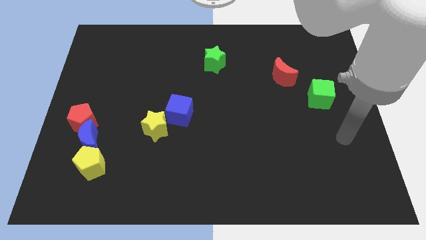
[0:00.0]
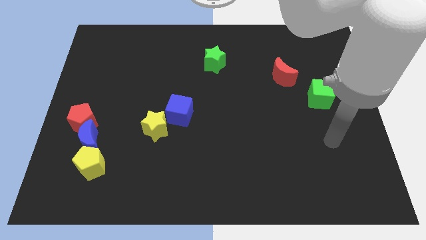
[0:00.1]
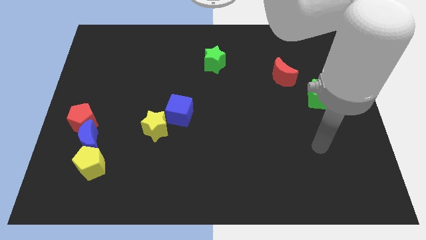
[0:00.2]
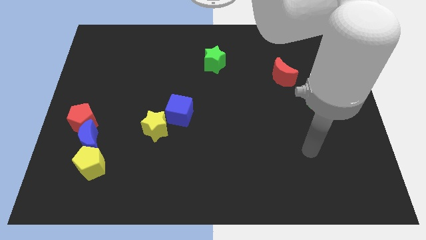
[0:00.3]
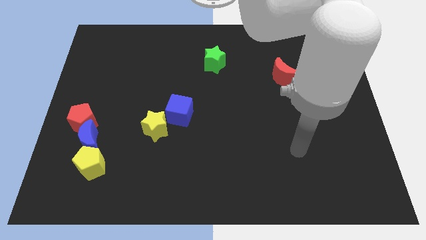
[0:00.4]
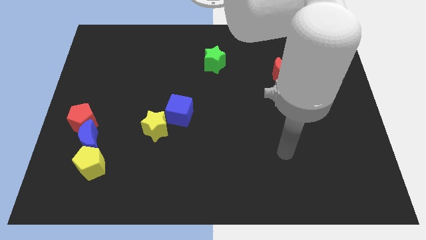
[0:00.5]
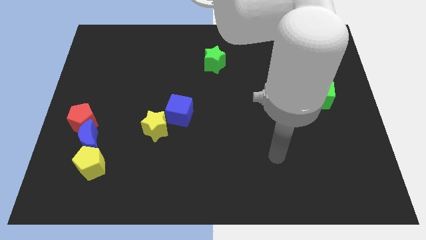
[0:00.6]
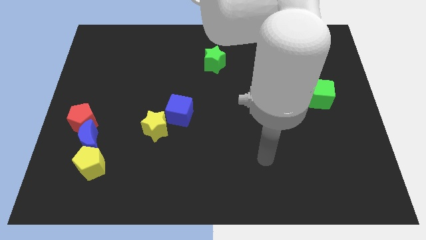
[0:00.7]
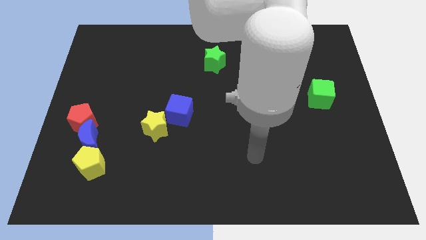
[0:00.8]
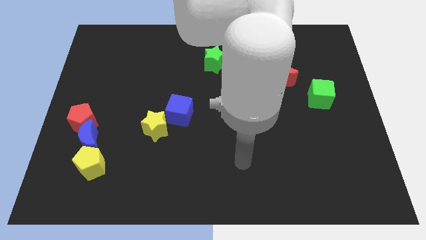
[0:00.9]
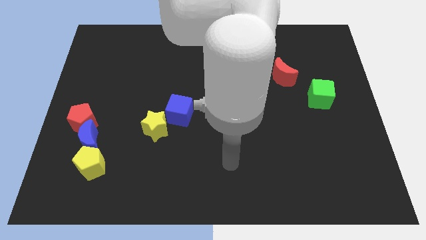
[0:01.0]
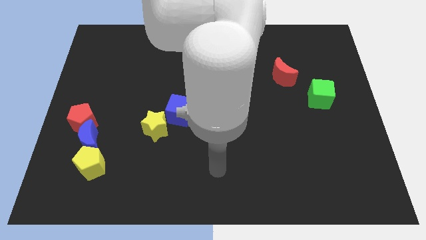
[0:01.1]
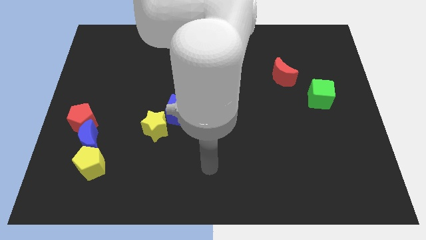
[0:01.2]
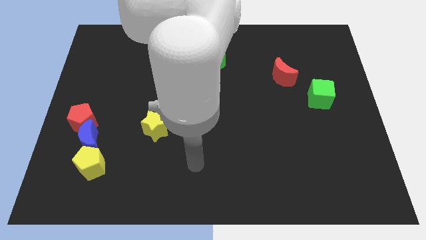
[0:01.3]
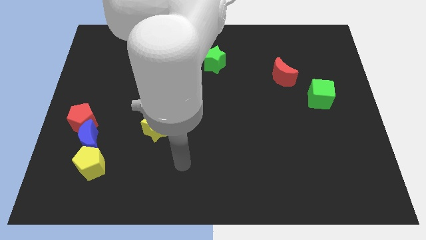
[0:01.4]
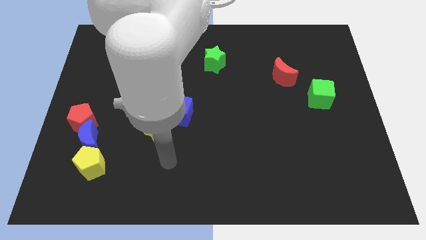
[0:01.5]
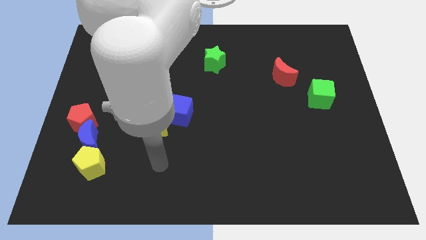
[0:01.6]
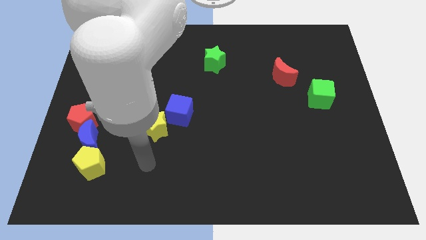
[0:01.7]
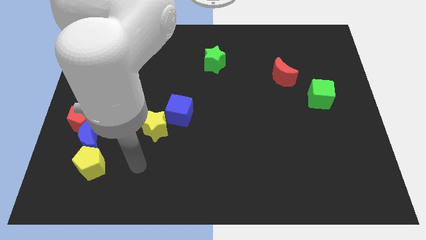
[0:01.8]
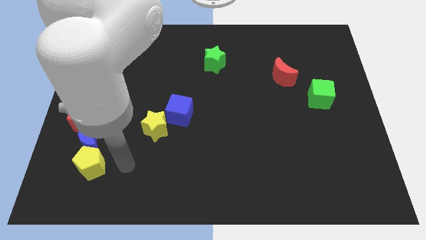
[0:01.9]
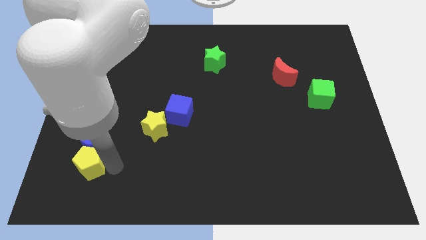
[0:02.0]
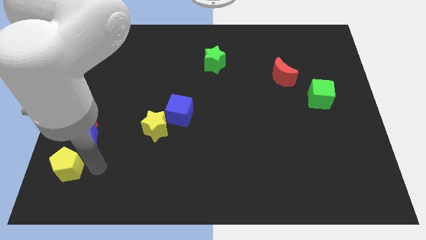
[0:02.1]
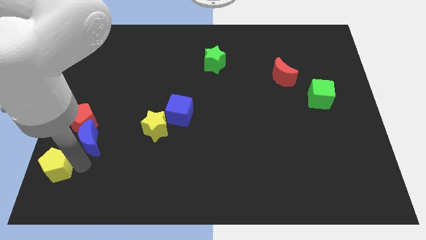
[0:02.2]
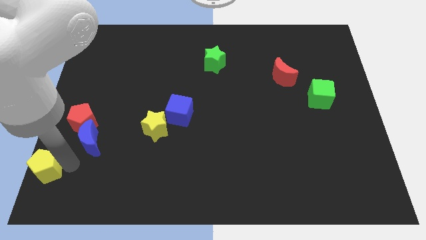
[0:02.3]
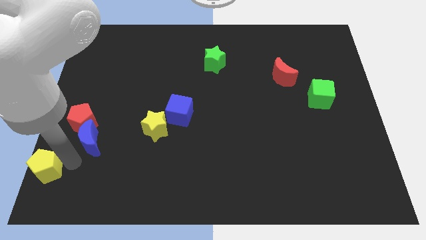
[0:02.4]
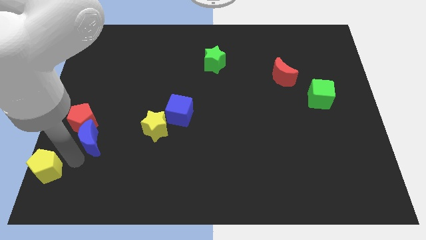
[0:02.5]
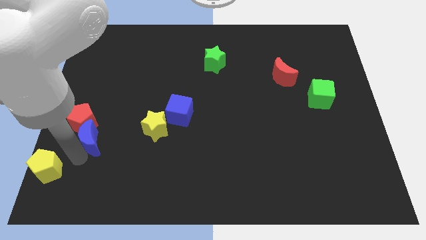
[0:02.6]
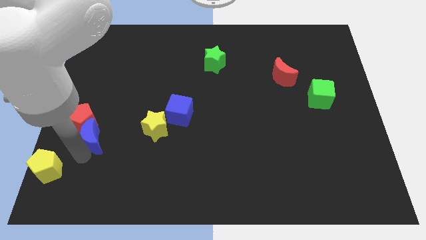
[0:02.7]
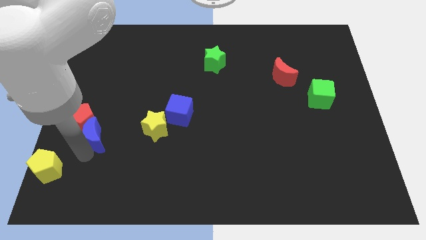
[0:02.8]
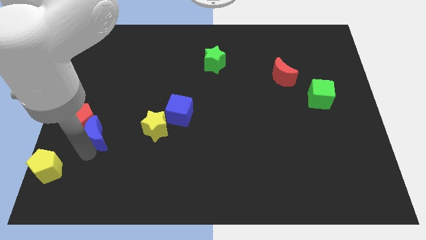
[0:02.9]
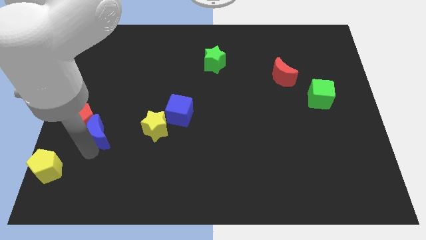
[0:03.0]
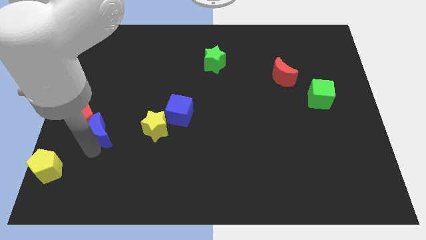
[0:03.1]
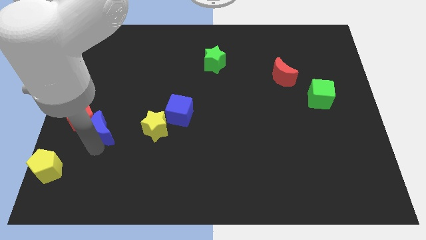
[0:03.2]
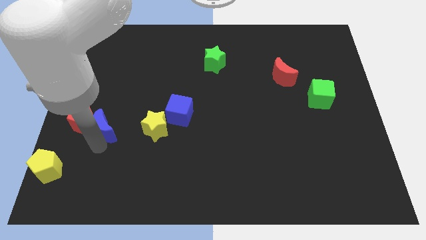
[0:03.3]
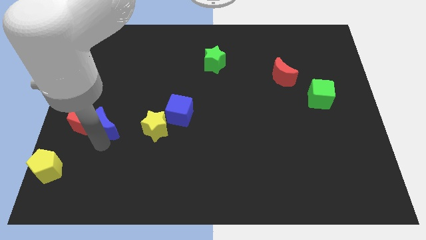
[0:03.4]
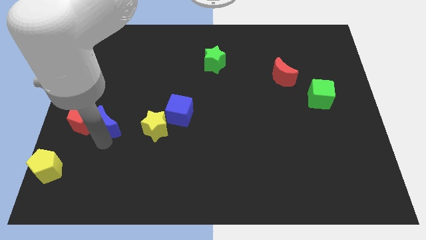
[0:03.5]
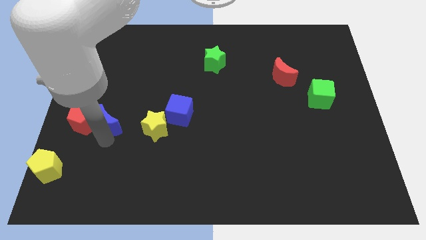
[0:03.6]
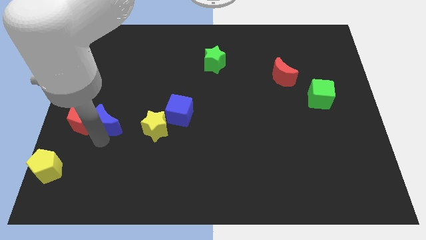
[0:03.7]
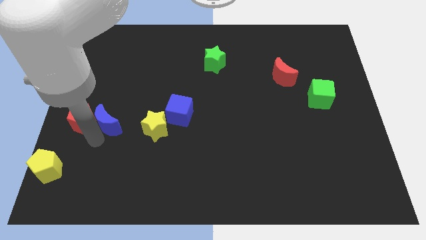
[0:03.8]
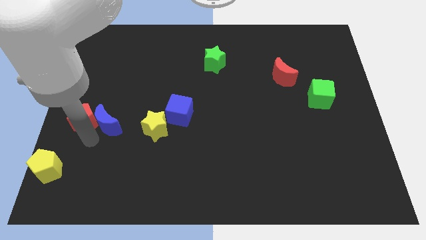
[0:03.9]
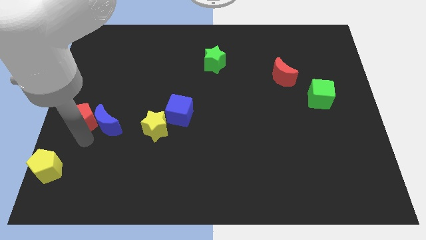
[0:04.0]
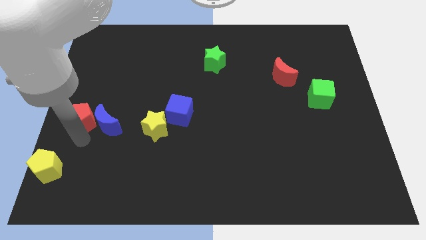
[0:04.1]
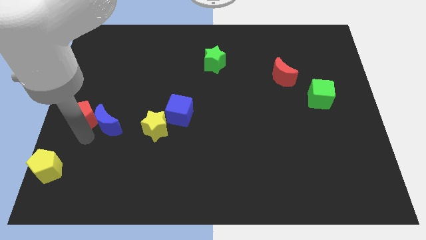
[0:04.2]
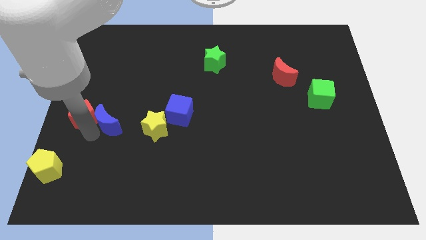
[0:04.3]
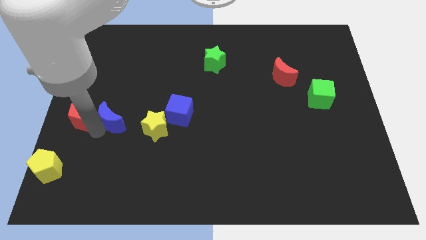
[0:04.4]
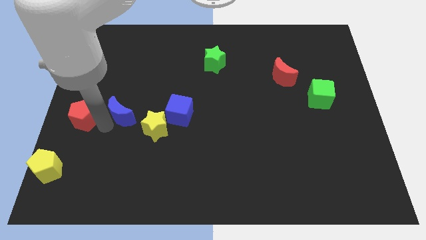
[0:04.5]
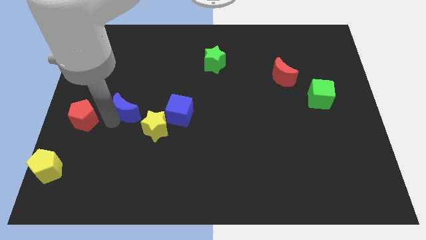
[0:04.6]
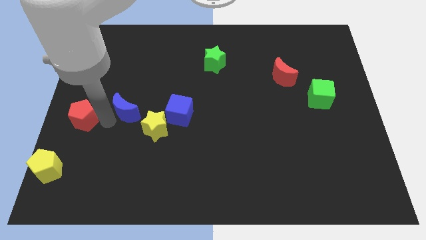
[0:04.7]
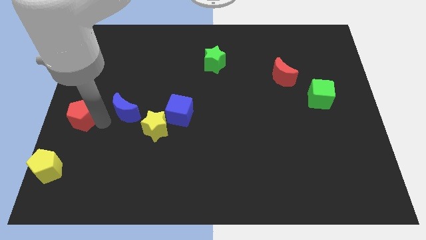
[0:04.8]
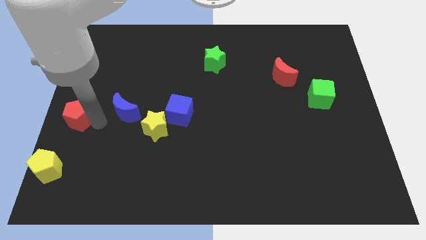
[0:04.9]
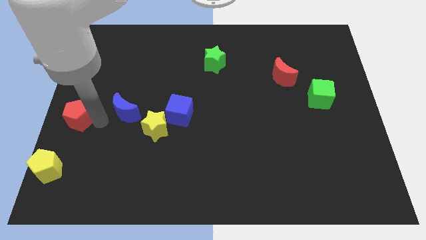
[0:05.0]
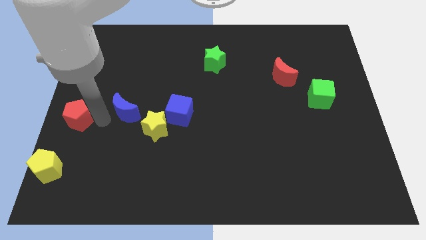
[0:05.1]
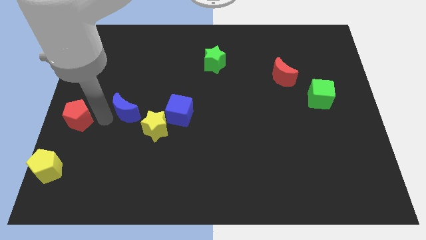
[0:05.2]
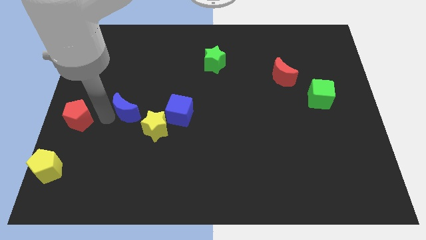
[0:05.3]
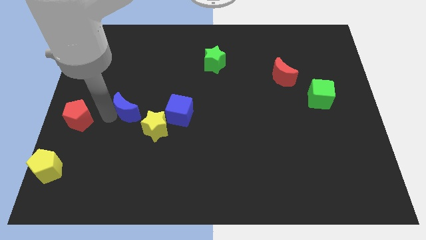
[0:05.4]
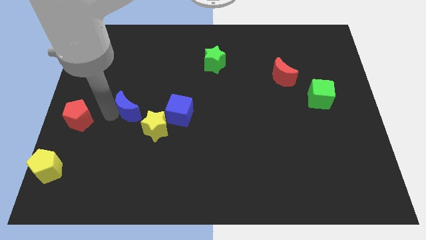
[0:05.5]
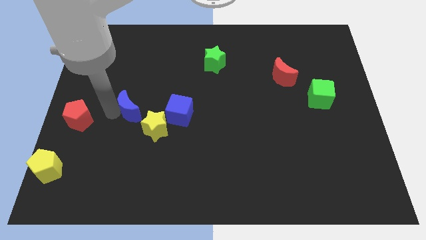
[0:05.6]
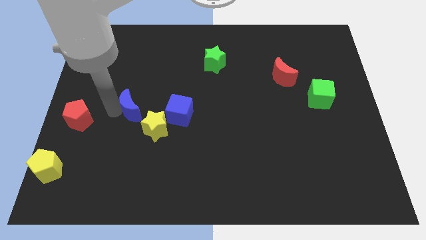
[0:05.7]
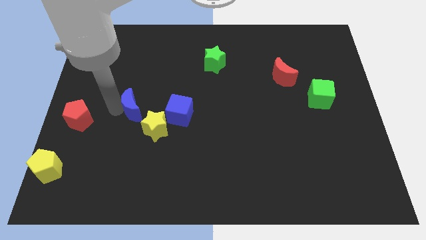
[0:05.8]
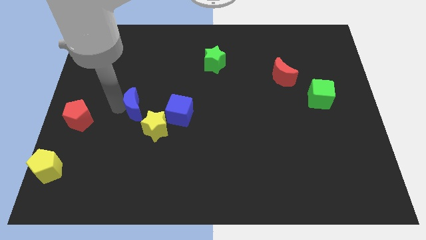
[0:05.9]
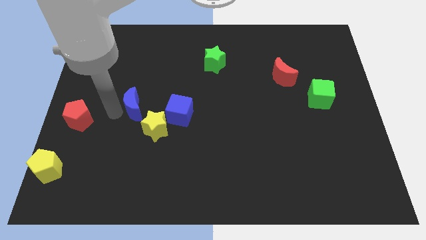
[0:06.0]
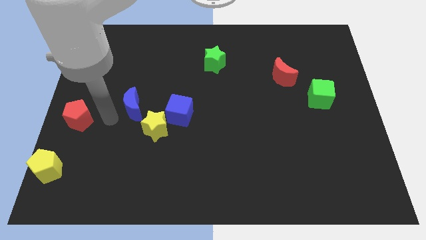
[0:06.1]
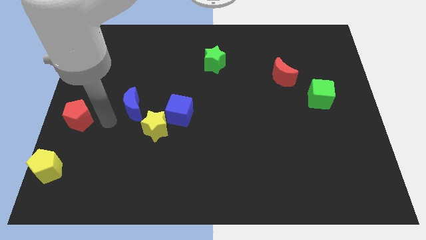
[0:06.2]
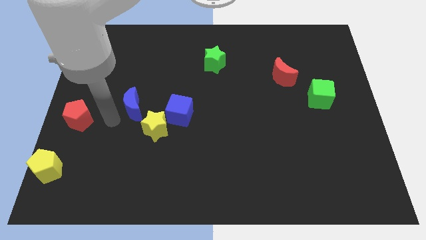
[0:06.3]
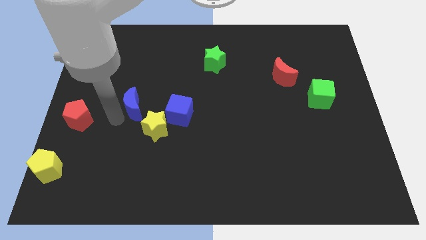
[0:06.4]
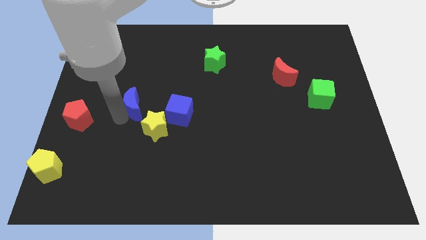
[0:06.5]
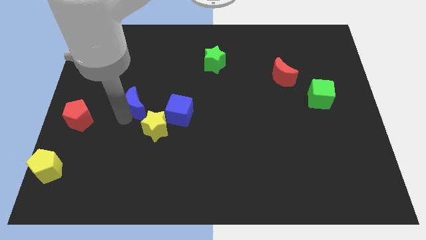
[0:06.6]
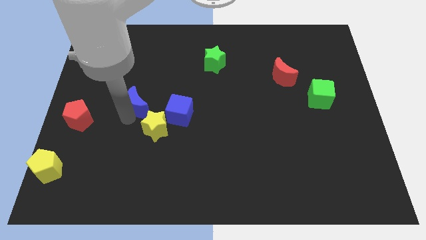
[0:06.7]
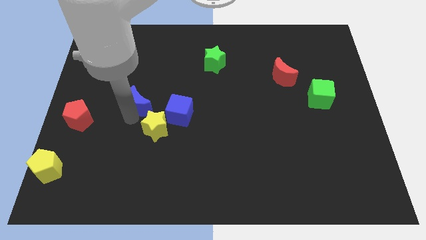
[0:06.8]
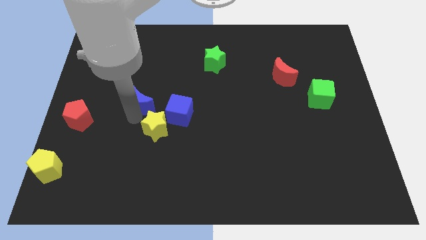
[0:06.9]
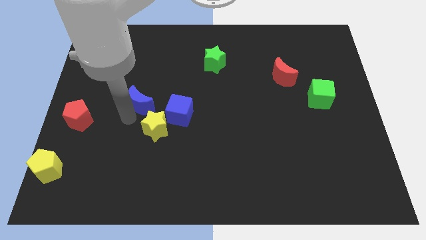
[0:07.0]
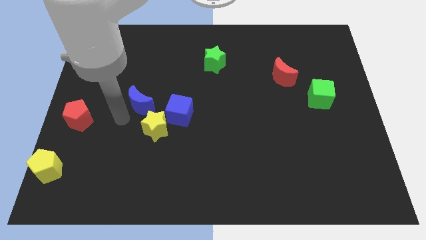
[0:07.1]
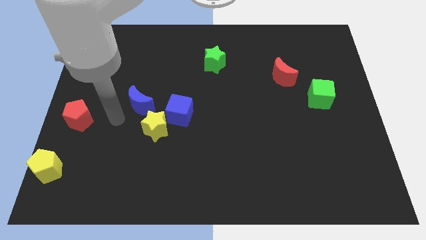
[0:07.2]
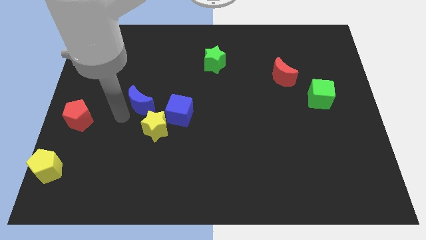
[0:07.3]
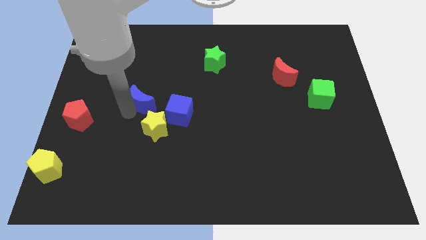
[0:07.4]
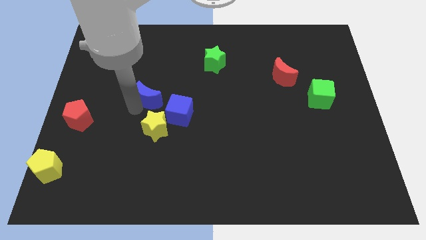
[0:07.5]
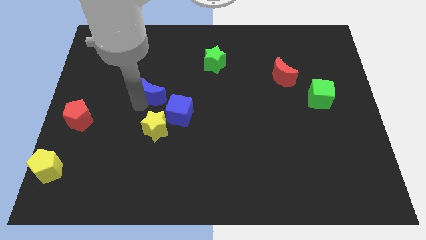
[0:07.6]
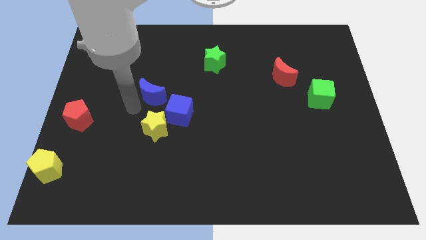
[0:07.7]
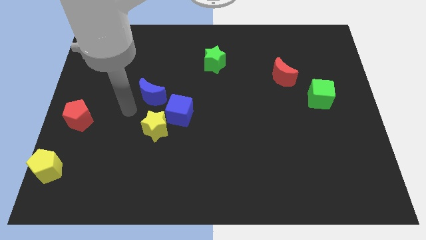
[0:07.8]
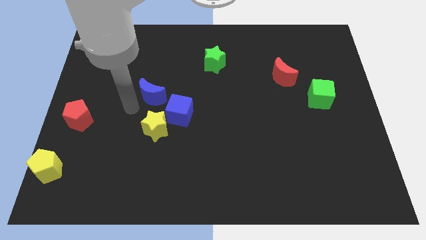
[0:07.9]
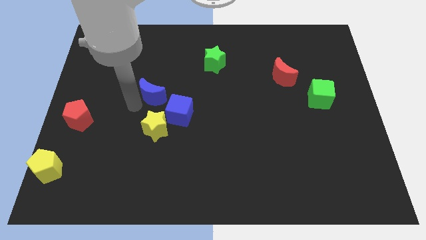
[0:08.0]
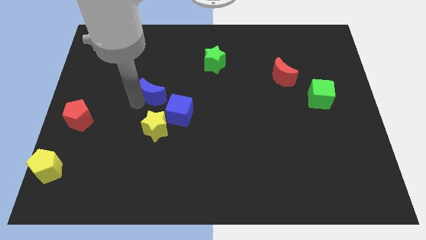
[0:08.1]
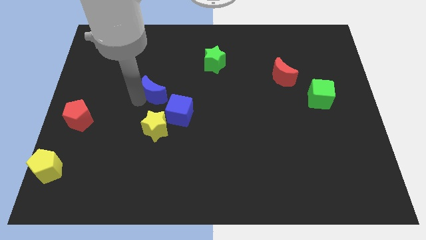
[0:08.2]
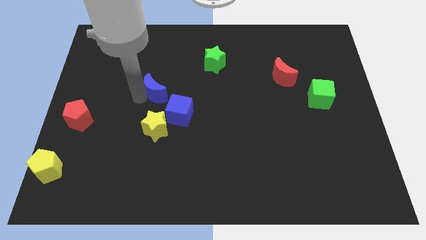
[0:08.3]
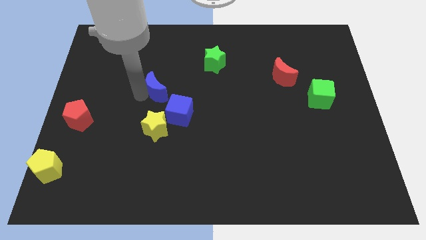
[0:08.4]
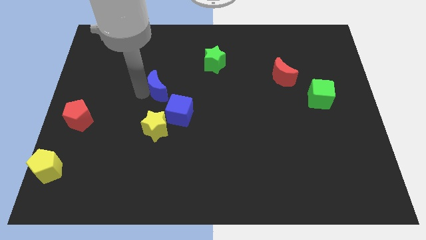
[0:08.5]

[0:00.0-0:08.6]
slide the blue moon up and then right
